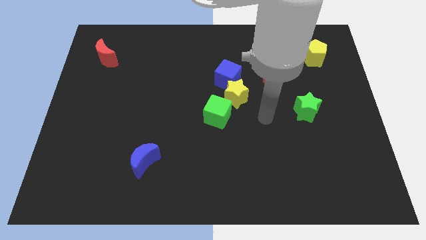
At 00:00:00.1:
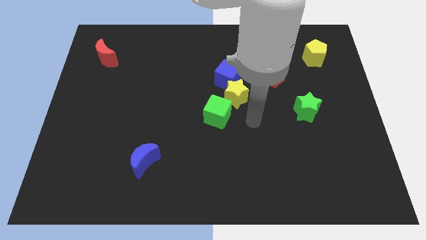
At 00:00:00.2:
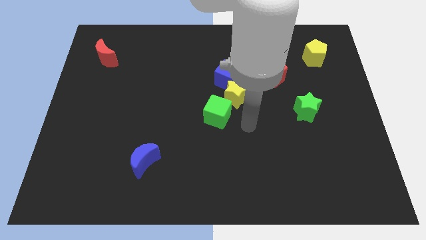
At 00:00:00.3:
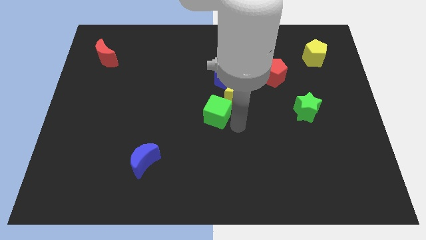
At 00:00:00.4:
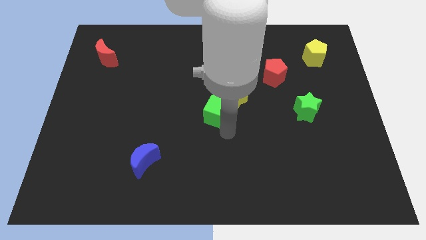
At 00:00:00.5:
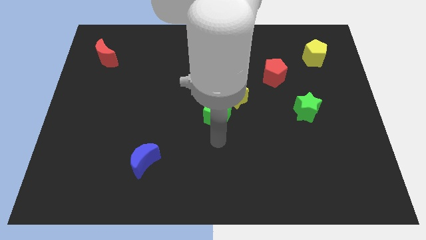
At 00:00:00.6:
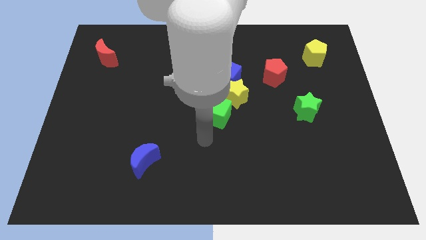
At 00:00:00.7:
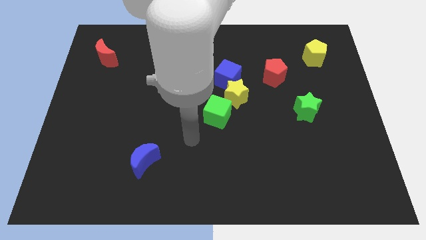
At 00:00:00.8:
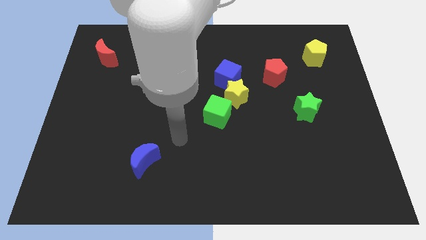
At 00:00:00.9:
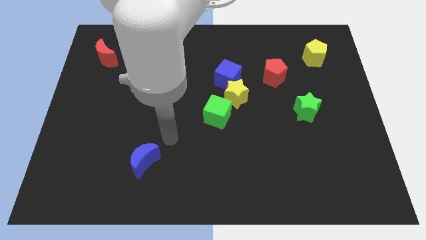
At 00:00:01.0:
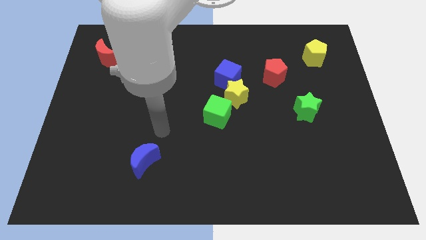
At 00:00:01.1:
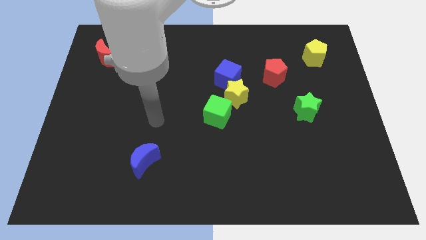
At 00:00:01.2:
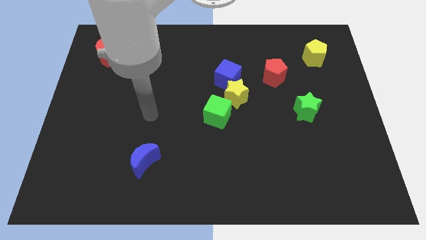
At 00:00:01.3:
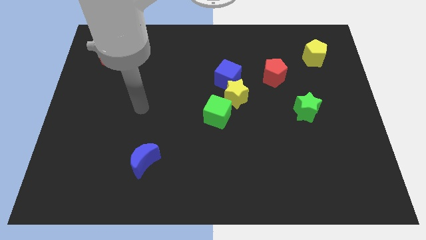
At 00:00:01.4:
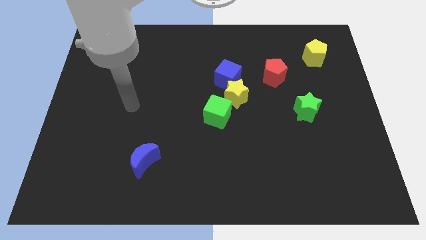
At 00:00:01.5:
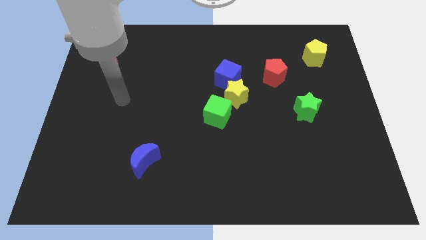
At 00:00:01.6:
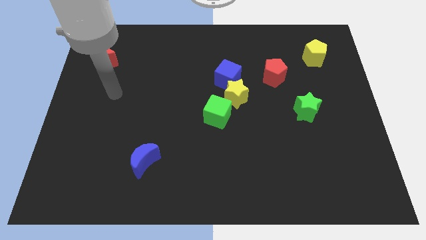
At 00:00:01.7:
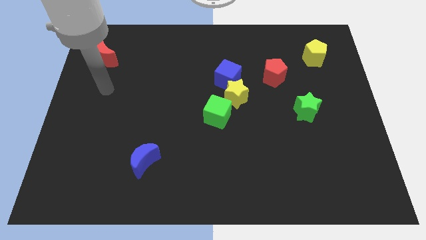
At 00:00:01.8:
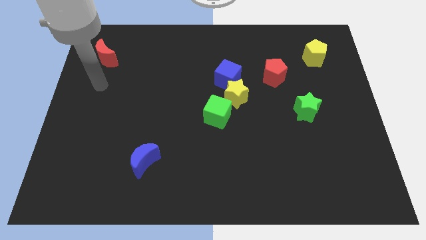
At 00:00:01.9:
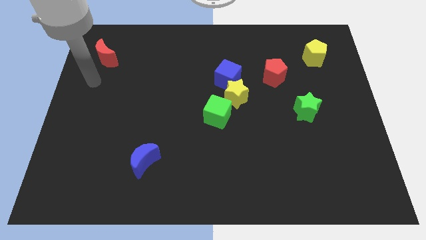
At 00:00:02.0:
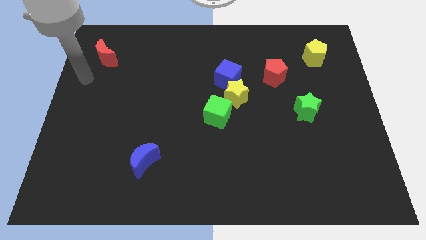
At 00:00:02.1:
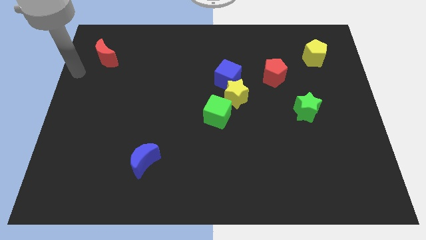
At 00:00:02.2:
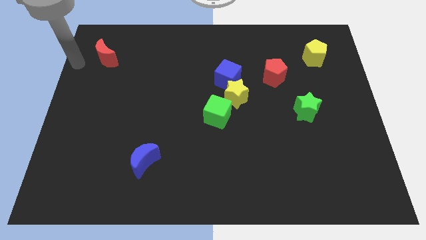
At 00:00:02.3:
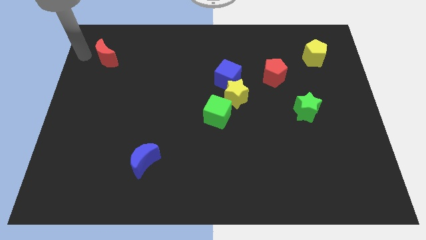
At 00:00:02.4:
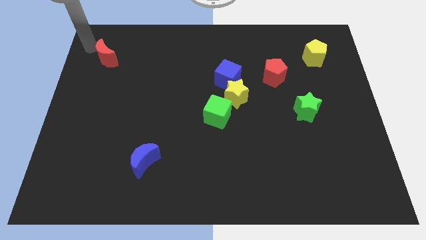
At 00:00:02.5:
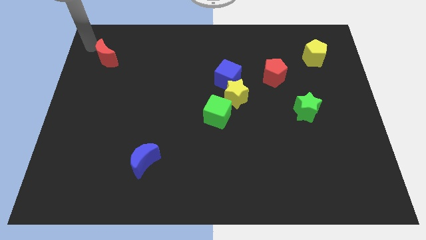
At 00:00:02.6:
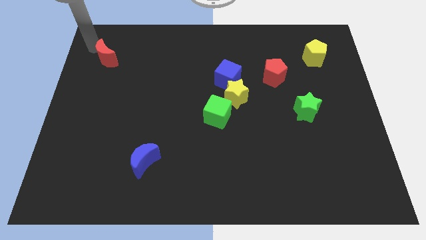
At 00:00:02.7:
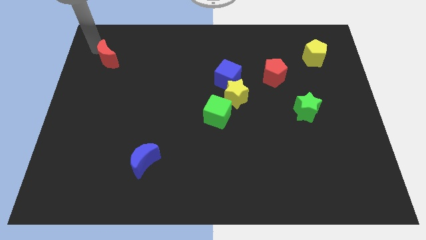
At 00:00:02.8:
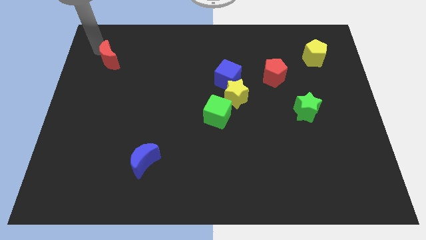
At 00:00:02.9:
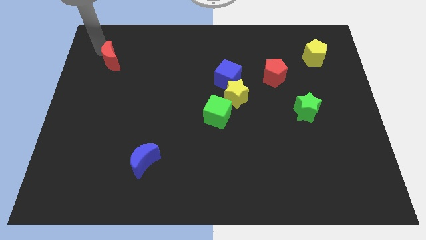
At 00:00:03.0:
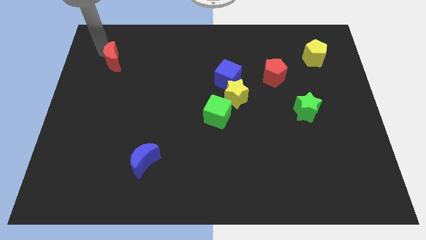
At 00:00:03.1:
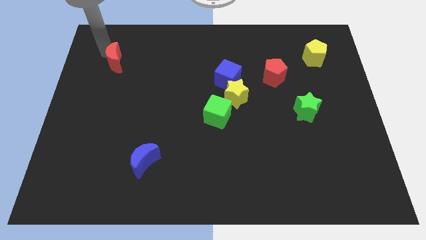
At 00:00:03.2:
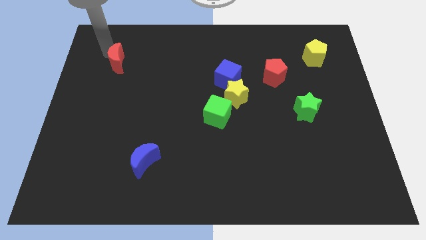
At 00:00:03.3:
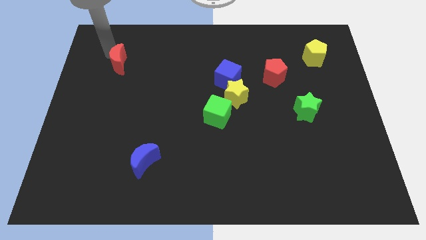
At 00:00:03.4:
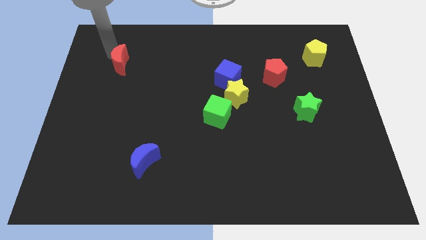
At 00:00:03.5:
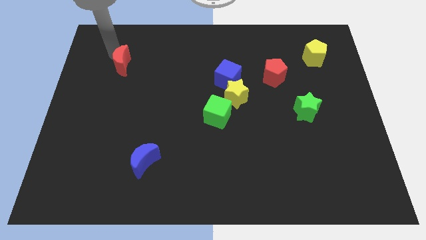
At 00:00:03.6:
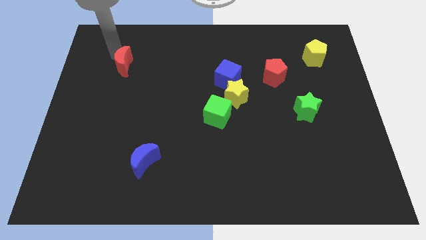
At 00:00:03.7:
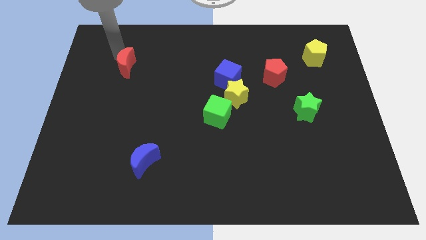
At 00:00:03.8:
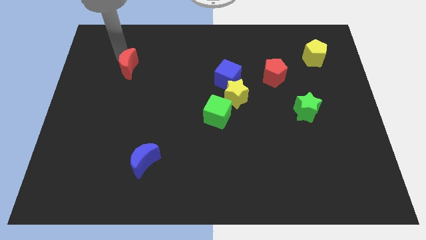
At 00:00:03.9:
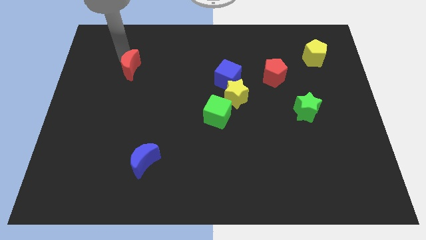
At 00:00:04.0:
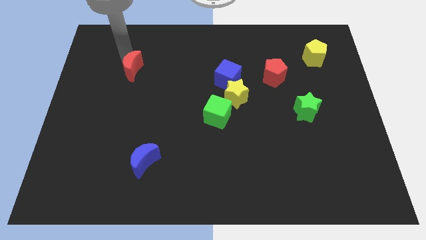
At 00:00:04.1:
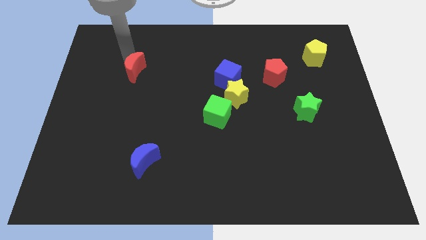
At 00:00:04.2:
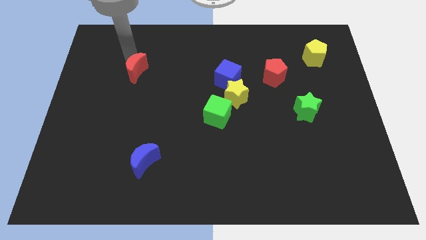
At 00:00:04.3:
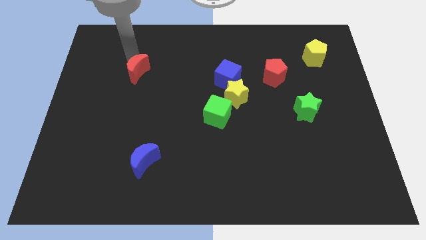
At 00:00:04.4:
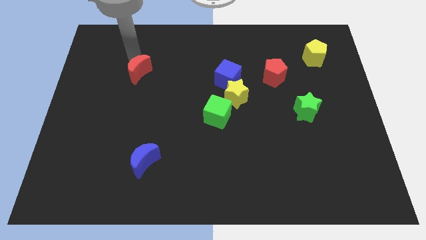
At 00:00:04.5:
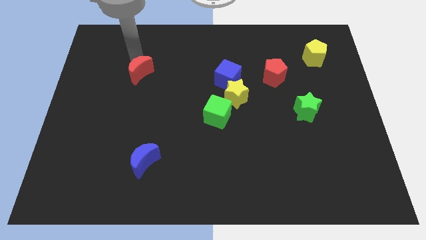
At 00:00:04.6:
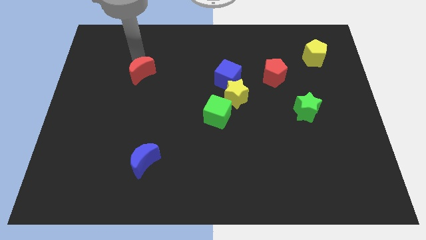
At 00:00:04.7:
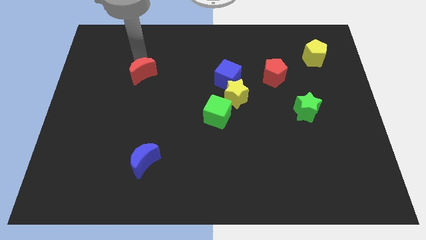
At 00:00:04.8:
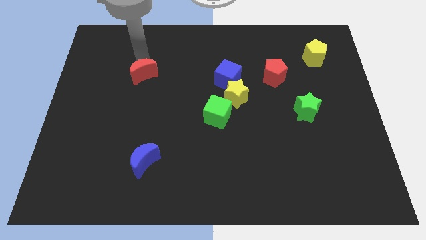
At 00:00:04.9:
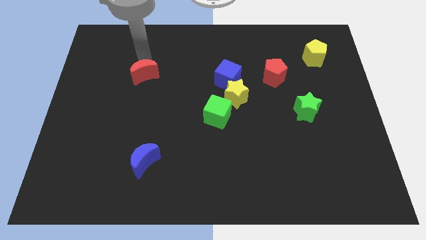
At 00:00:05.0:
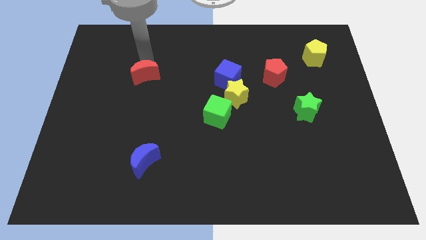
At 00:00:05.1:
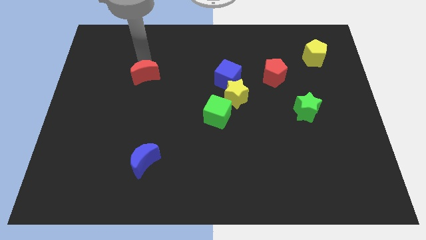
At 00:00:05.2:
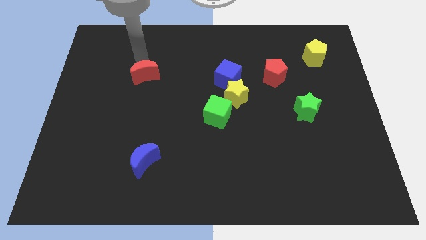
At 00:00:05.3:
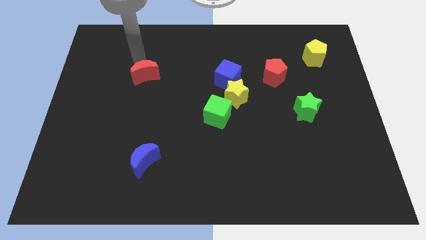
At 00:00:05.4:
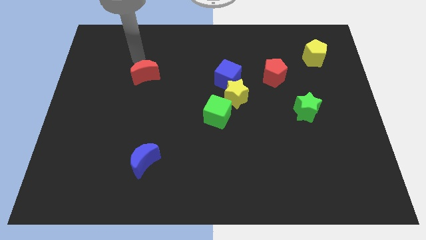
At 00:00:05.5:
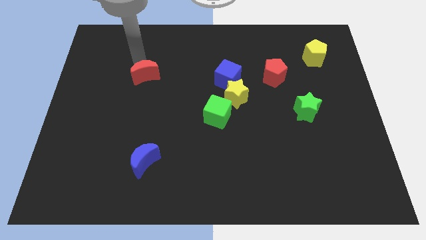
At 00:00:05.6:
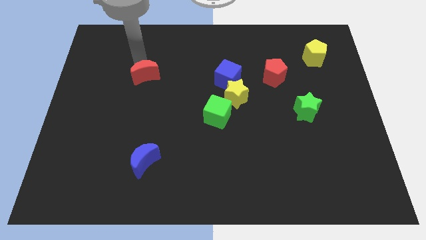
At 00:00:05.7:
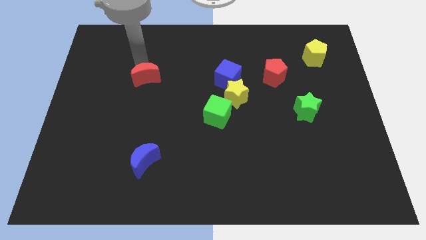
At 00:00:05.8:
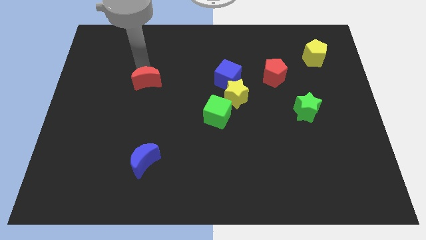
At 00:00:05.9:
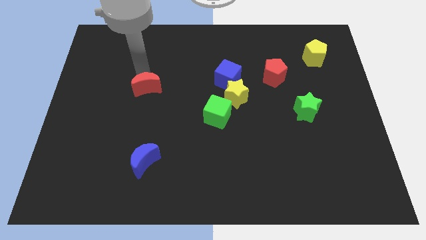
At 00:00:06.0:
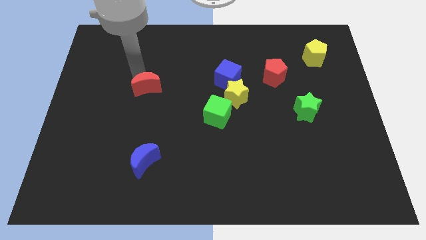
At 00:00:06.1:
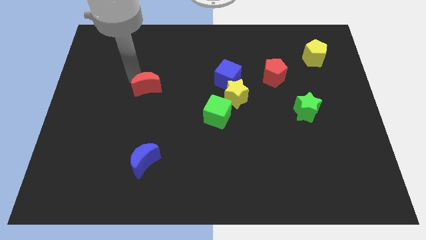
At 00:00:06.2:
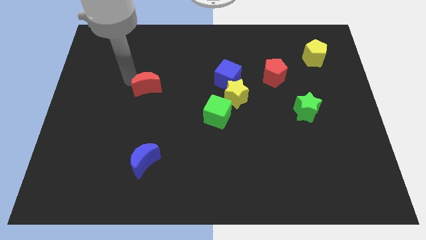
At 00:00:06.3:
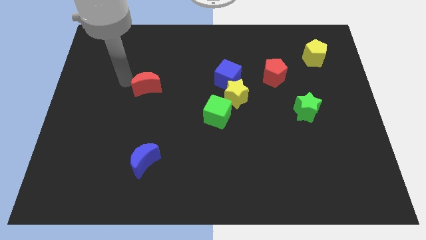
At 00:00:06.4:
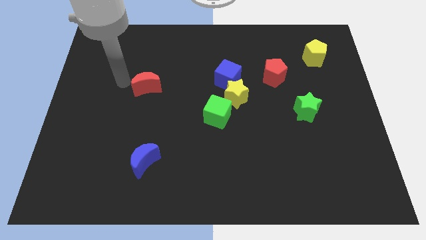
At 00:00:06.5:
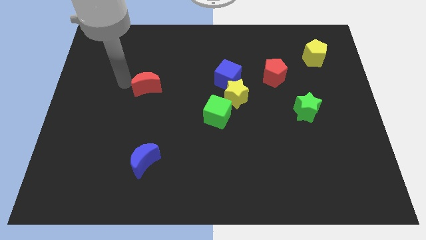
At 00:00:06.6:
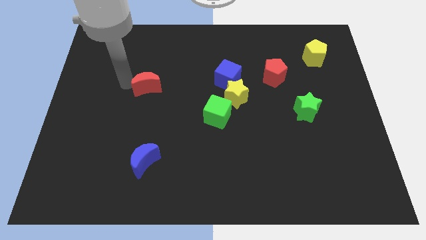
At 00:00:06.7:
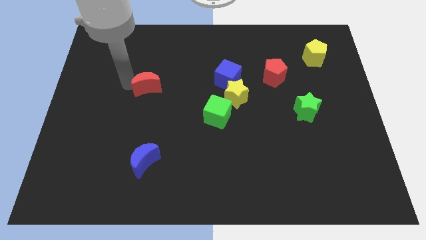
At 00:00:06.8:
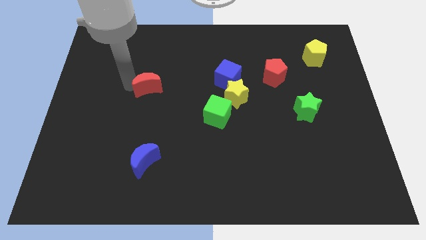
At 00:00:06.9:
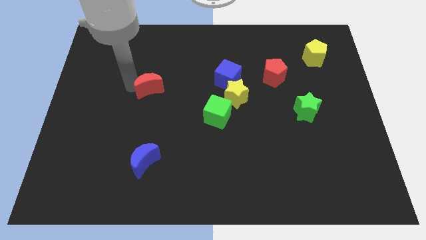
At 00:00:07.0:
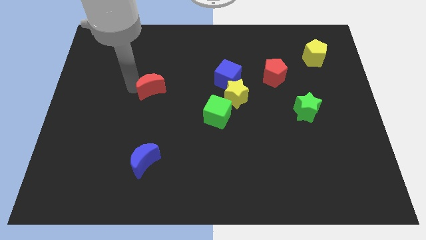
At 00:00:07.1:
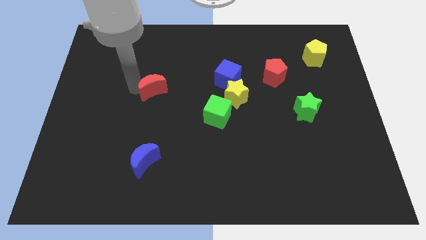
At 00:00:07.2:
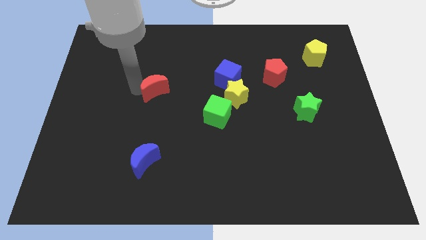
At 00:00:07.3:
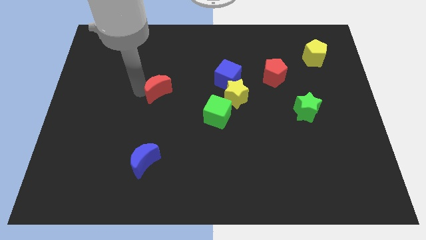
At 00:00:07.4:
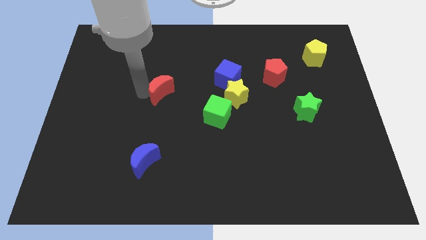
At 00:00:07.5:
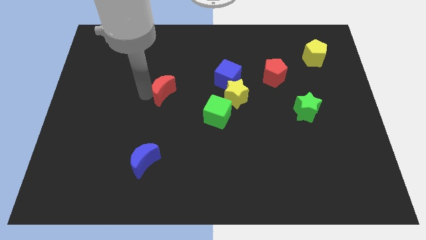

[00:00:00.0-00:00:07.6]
move the red moon to the center

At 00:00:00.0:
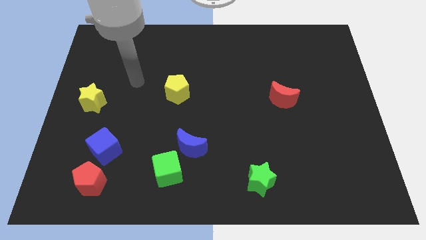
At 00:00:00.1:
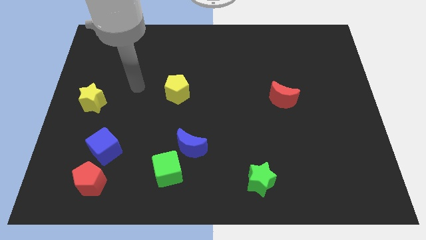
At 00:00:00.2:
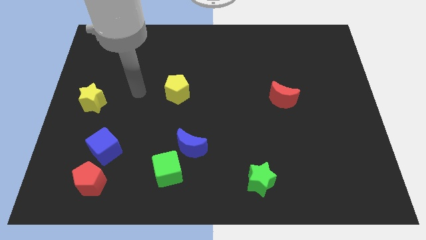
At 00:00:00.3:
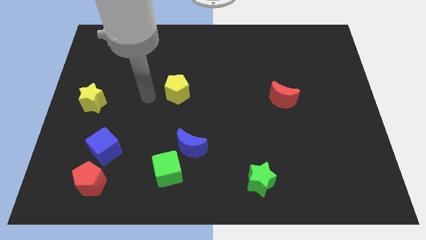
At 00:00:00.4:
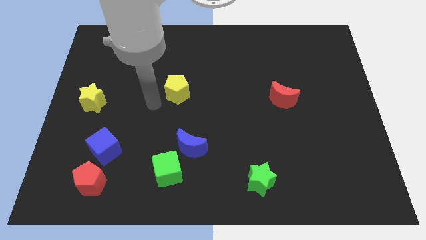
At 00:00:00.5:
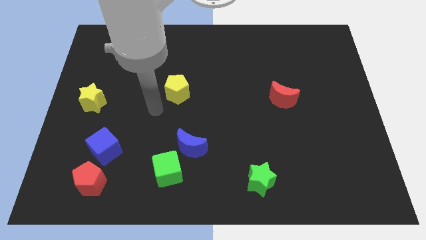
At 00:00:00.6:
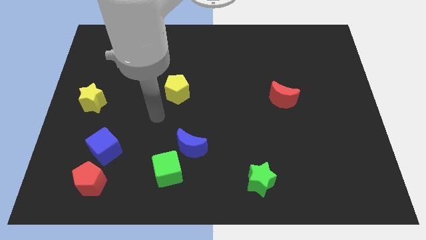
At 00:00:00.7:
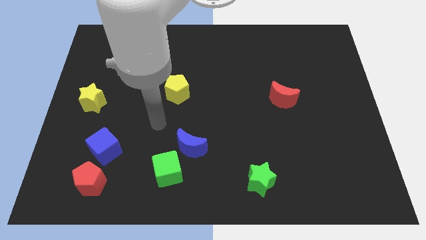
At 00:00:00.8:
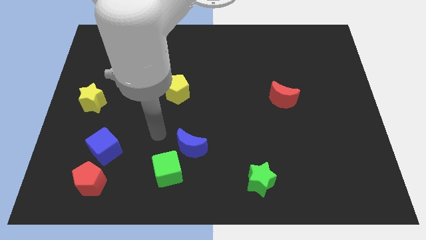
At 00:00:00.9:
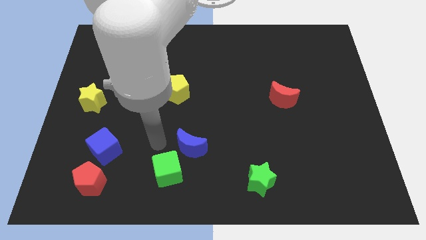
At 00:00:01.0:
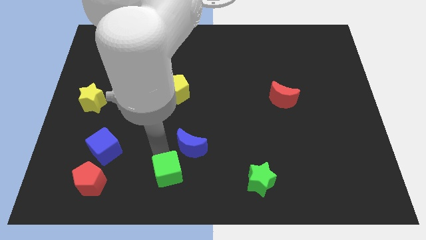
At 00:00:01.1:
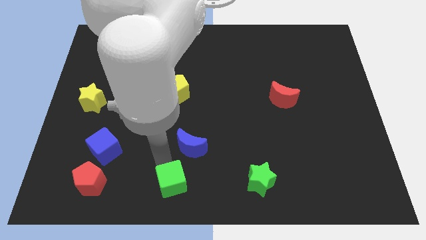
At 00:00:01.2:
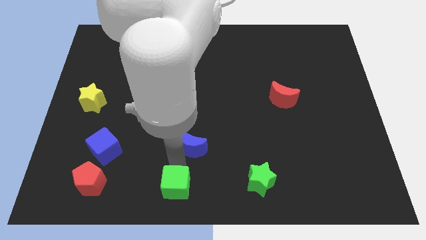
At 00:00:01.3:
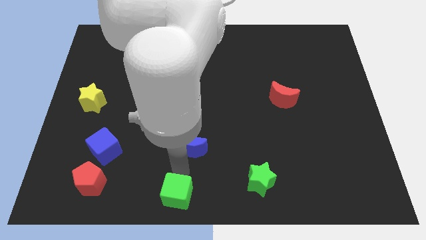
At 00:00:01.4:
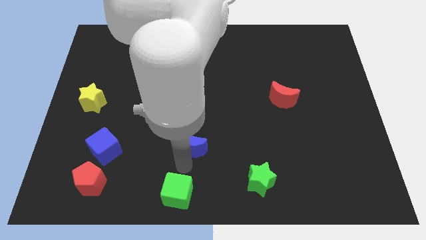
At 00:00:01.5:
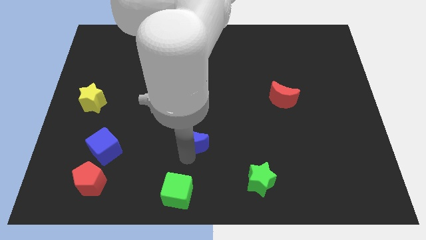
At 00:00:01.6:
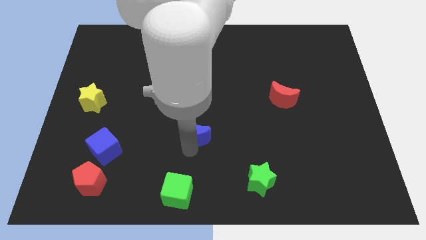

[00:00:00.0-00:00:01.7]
slide the blue moon to the center
